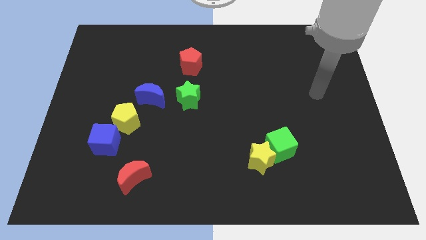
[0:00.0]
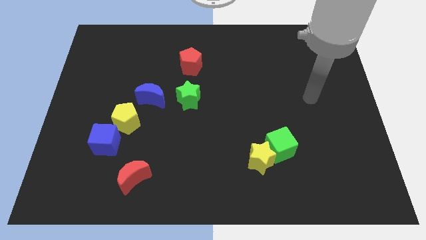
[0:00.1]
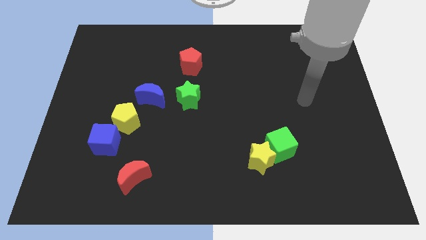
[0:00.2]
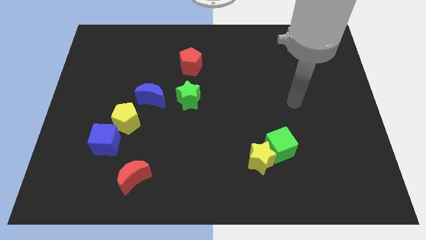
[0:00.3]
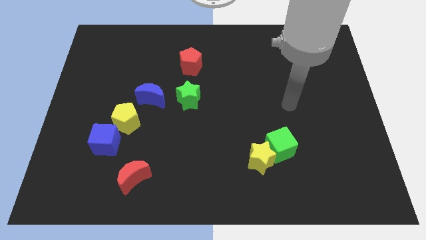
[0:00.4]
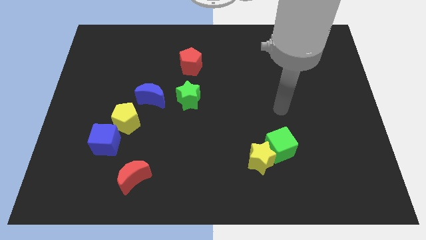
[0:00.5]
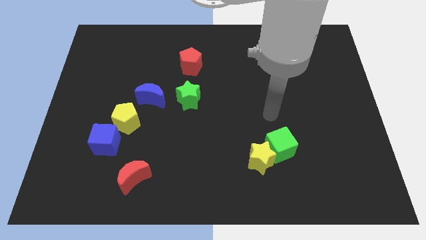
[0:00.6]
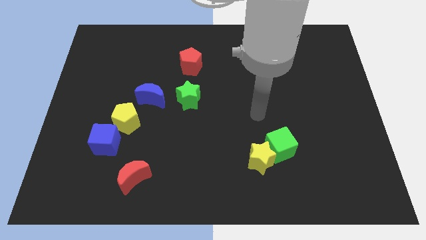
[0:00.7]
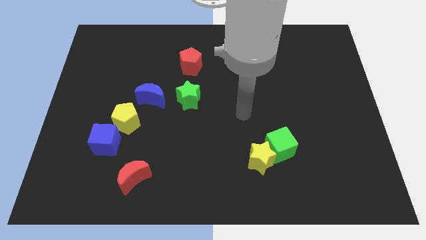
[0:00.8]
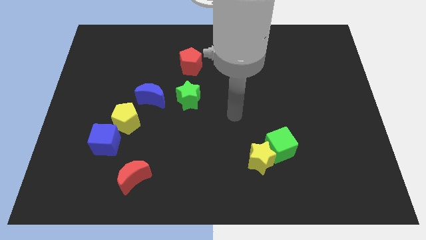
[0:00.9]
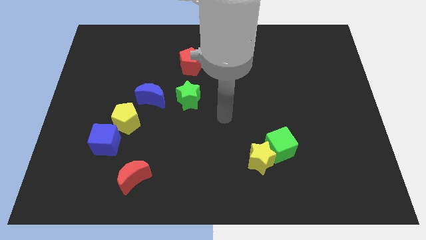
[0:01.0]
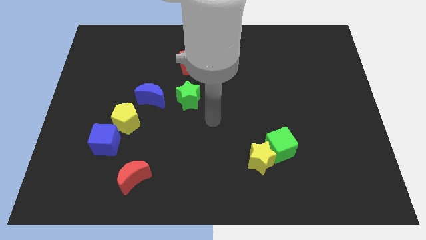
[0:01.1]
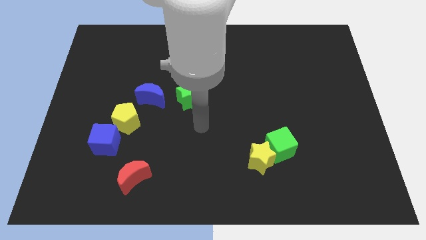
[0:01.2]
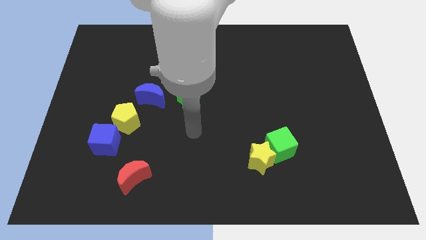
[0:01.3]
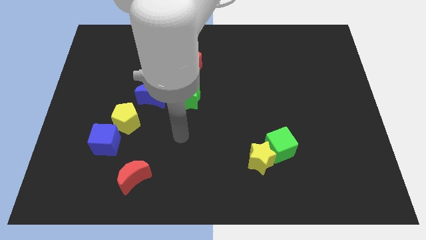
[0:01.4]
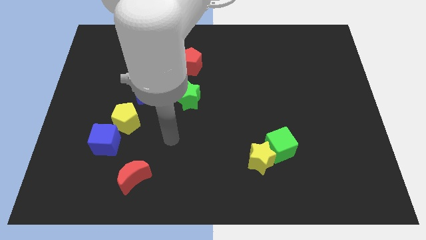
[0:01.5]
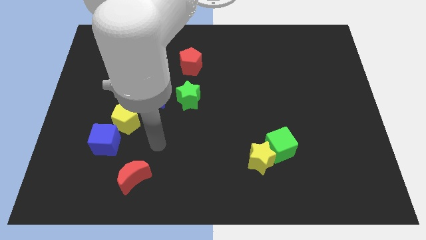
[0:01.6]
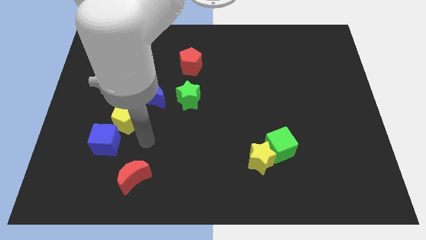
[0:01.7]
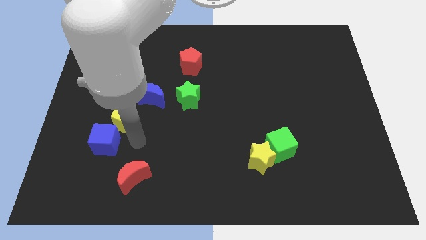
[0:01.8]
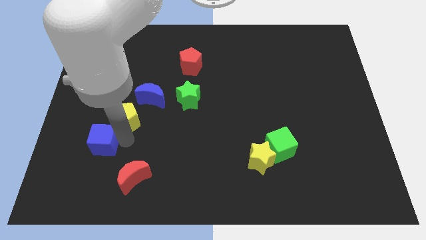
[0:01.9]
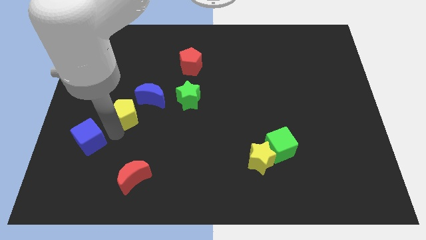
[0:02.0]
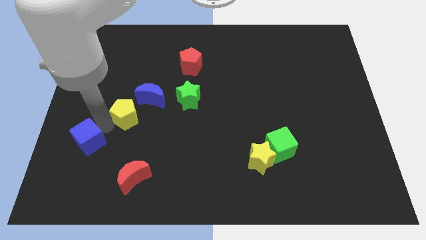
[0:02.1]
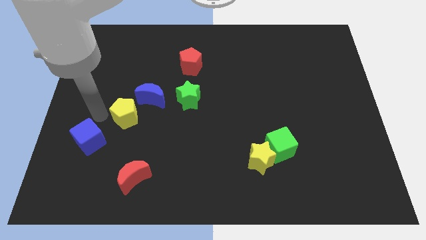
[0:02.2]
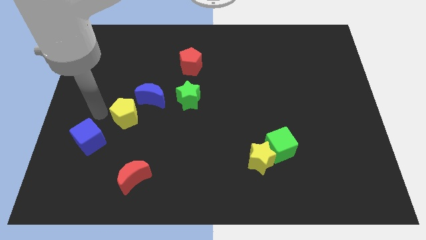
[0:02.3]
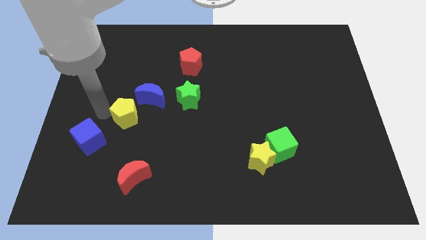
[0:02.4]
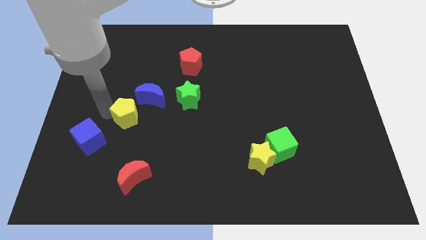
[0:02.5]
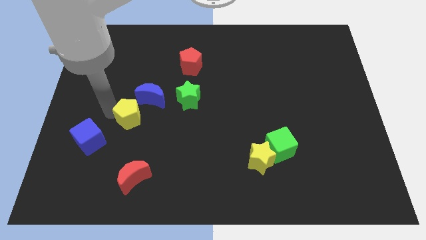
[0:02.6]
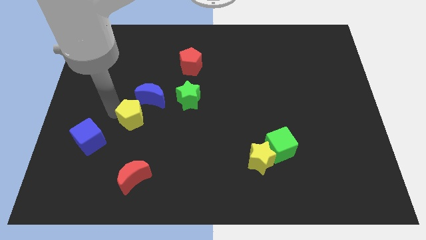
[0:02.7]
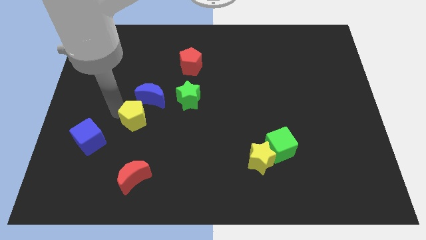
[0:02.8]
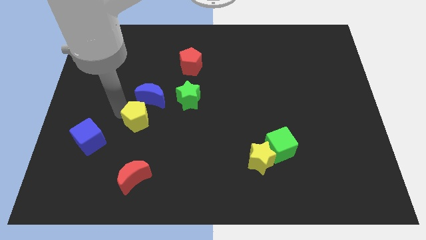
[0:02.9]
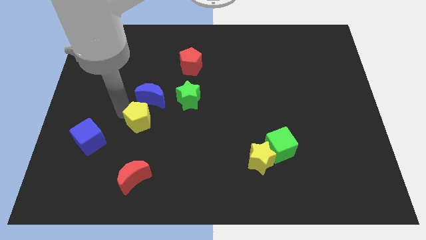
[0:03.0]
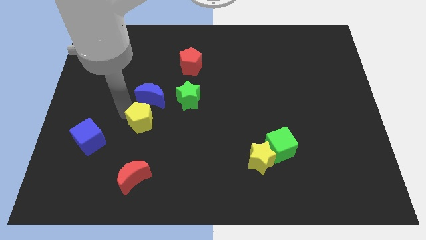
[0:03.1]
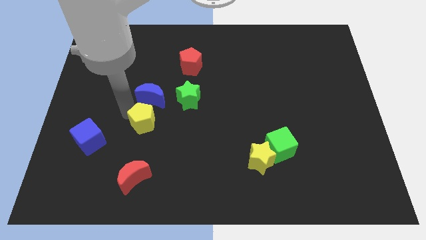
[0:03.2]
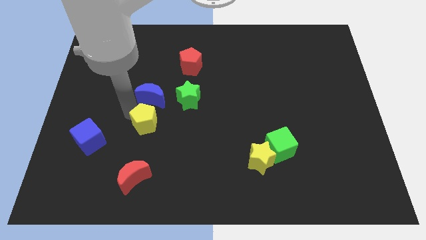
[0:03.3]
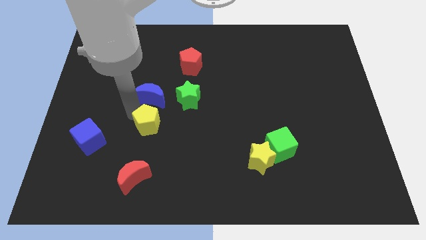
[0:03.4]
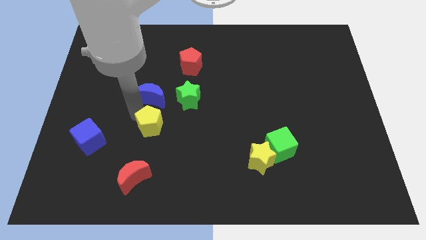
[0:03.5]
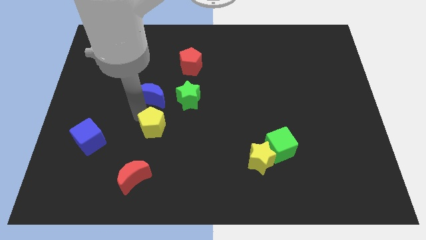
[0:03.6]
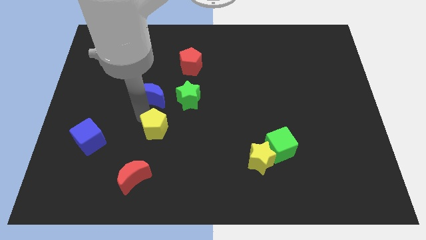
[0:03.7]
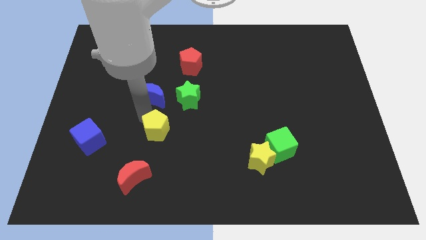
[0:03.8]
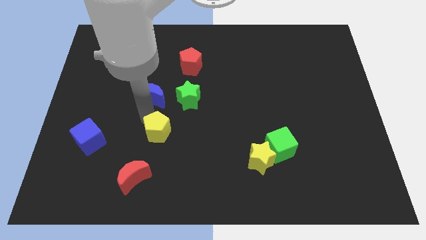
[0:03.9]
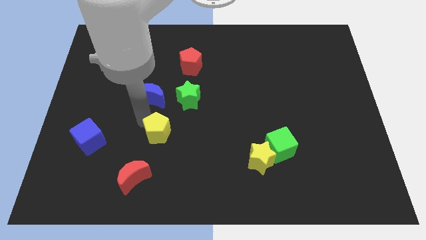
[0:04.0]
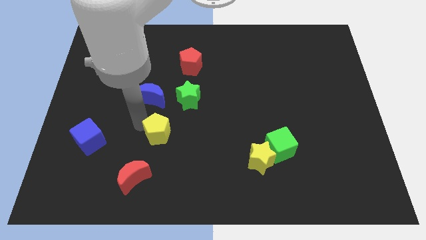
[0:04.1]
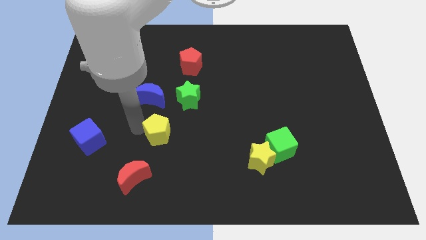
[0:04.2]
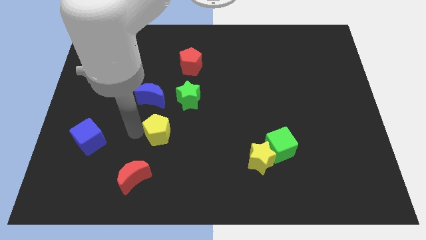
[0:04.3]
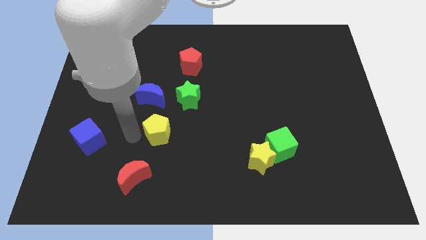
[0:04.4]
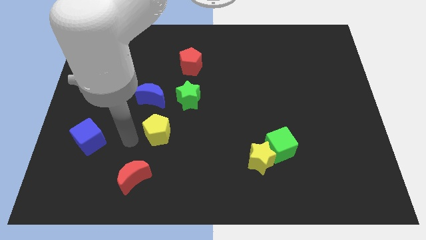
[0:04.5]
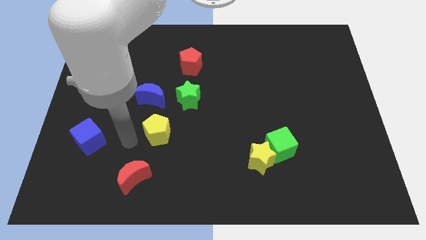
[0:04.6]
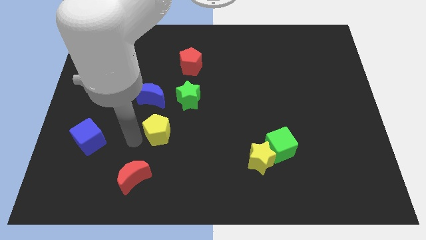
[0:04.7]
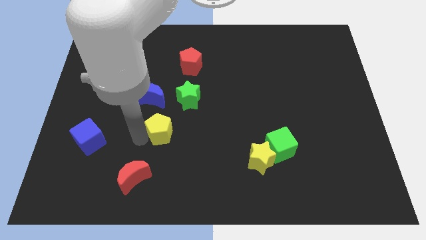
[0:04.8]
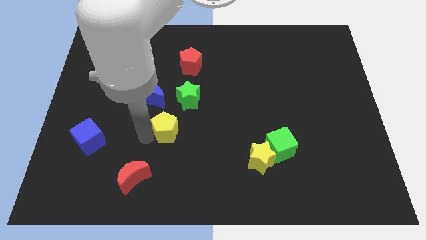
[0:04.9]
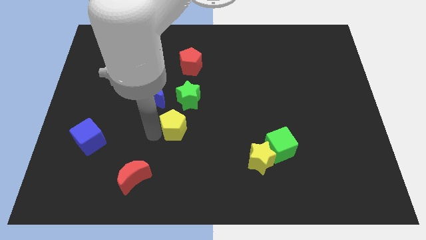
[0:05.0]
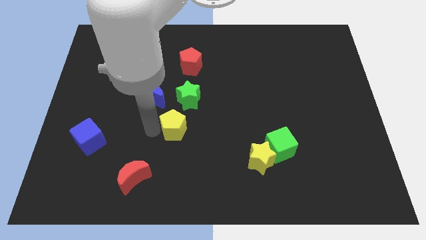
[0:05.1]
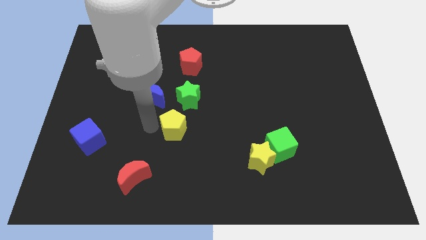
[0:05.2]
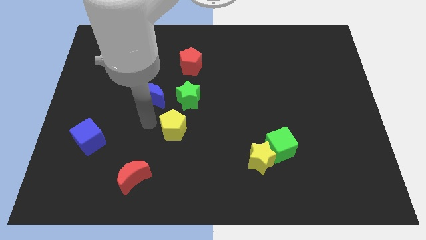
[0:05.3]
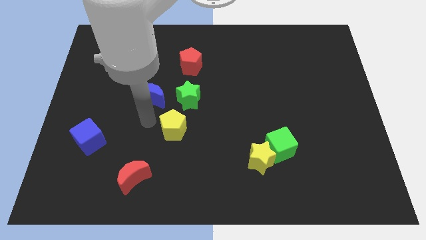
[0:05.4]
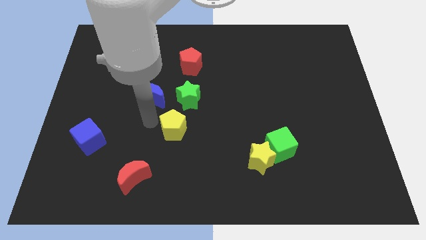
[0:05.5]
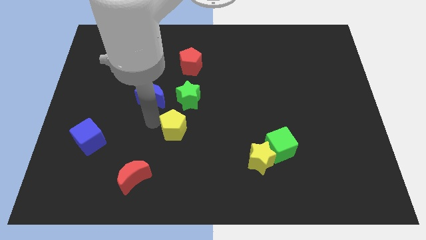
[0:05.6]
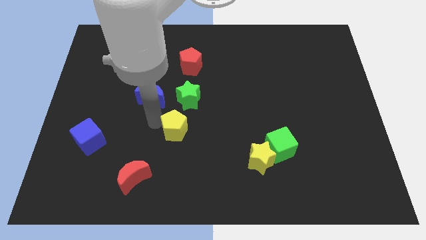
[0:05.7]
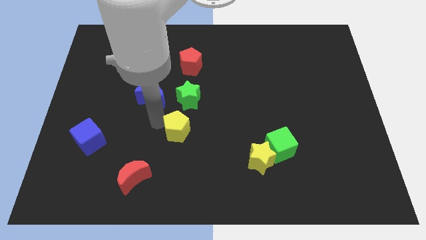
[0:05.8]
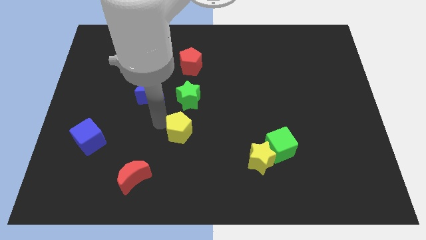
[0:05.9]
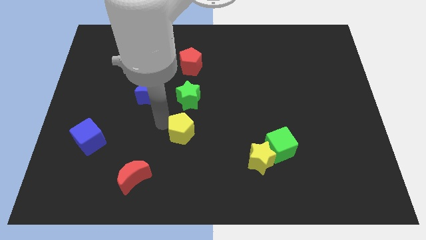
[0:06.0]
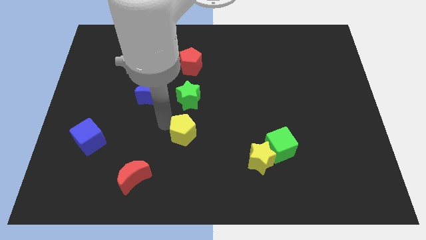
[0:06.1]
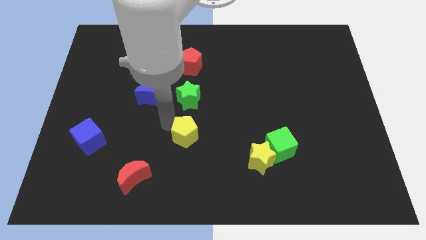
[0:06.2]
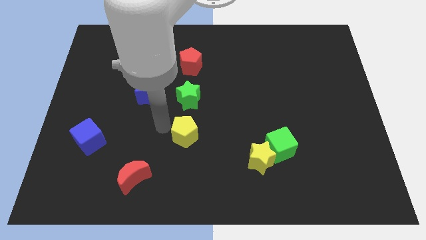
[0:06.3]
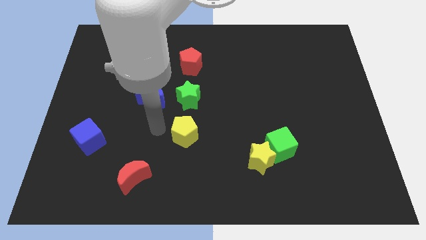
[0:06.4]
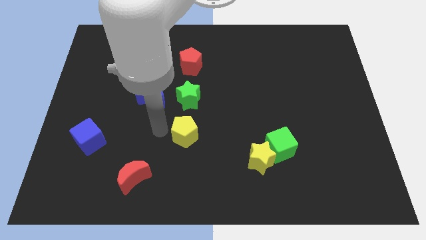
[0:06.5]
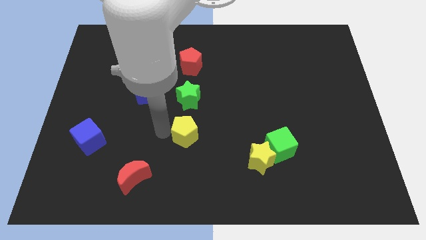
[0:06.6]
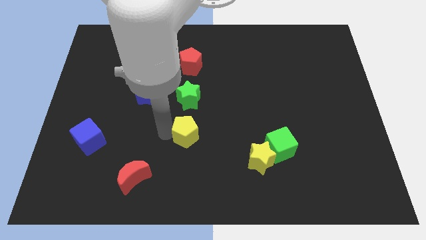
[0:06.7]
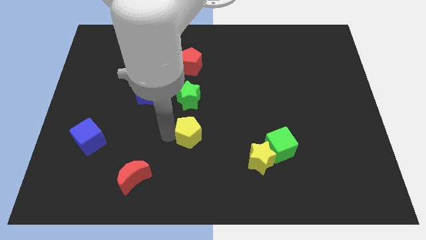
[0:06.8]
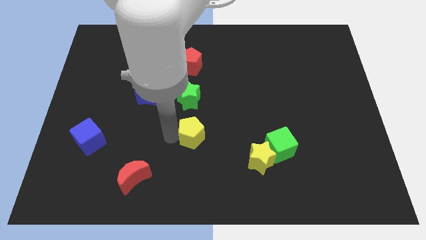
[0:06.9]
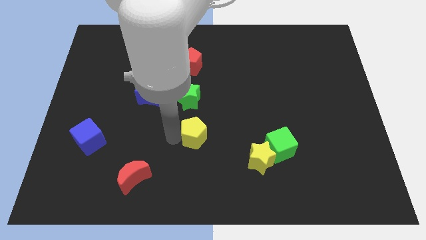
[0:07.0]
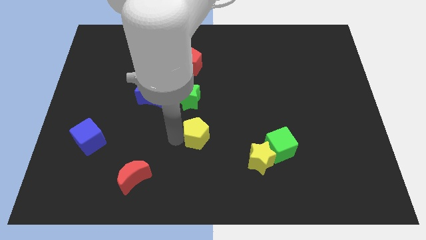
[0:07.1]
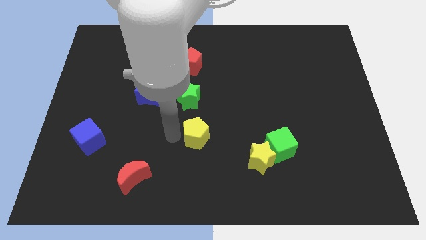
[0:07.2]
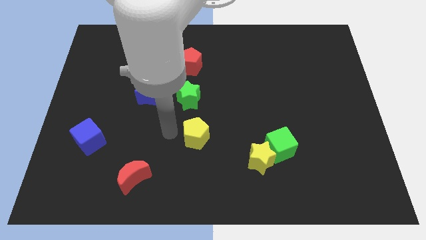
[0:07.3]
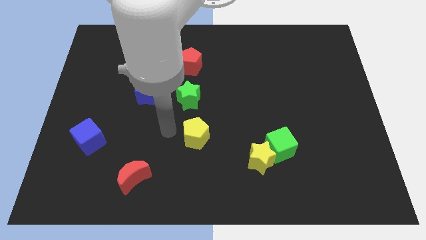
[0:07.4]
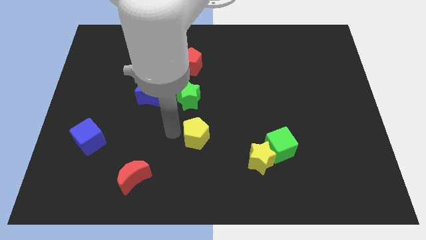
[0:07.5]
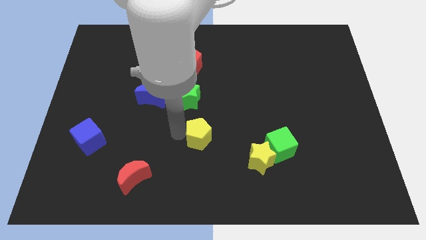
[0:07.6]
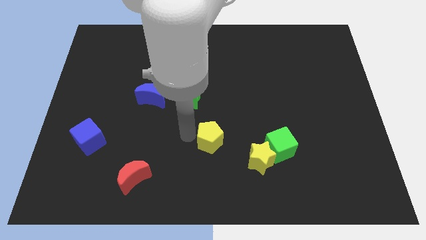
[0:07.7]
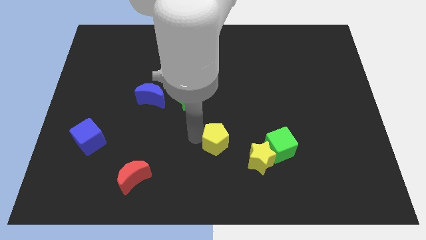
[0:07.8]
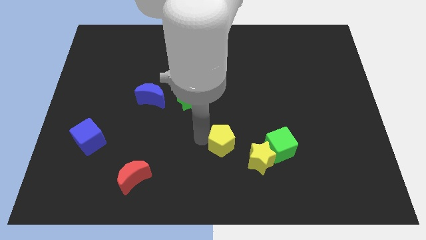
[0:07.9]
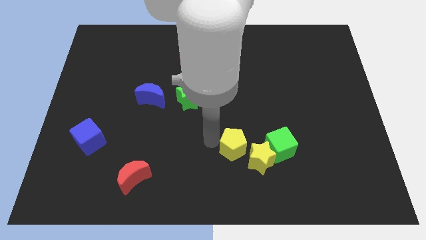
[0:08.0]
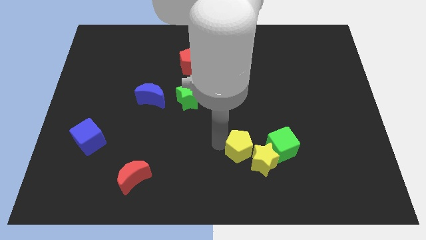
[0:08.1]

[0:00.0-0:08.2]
push the yellow pentagon next to the yellow star
